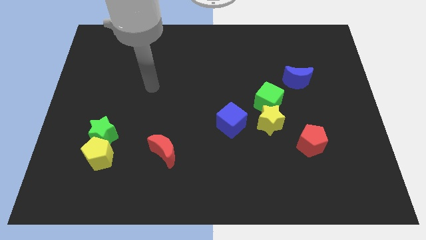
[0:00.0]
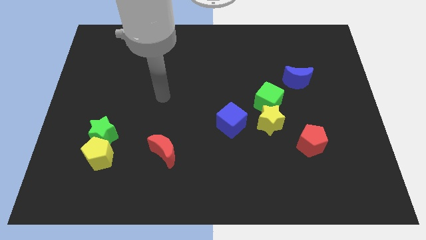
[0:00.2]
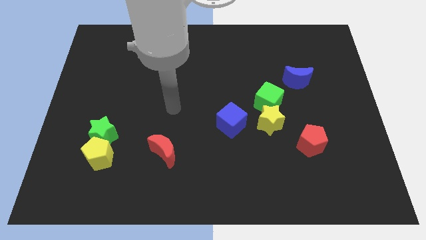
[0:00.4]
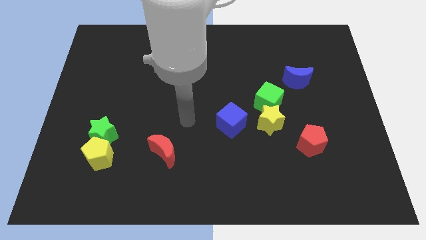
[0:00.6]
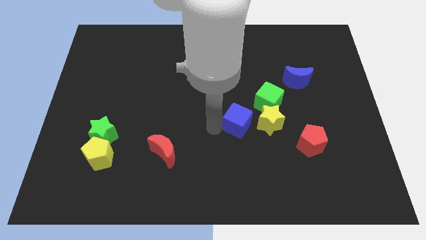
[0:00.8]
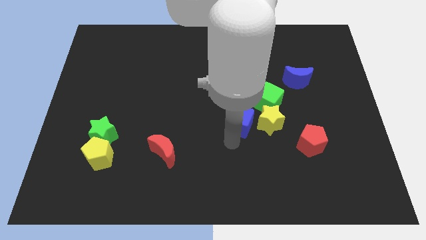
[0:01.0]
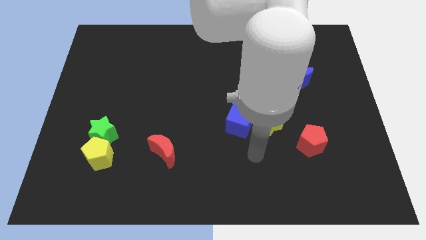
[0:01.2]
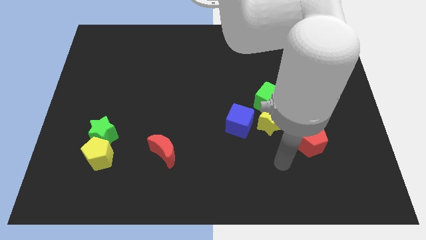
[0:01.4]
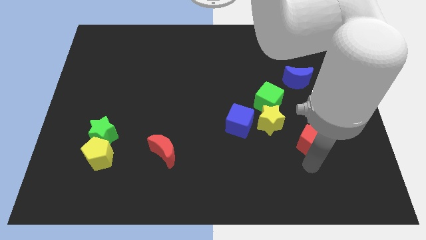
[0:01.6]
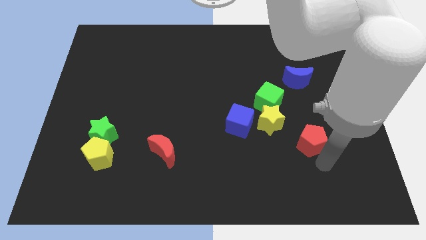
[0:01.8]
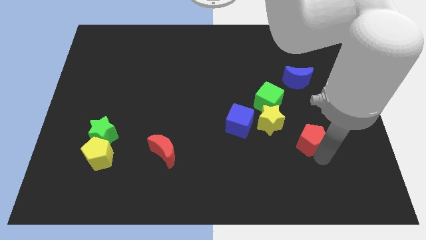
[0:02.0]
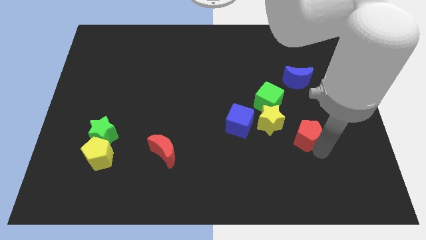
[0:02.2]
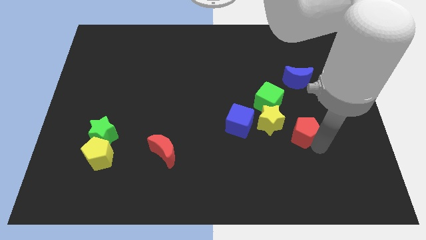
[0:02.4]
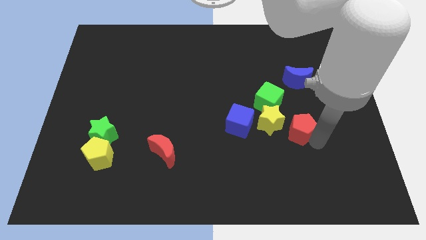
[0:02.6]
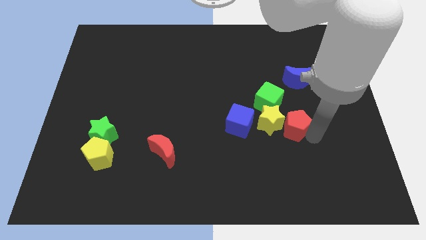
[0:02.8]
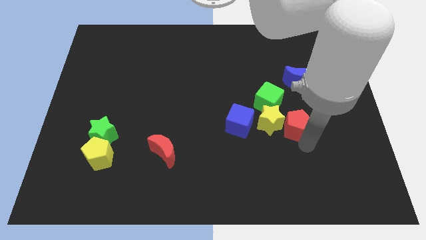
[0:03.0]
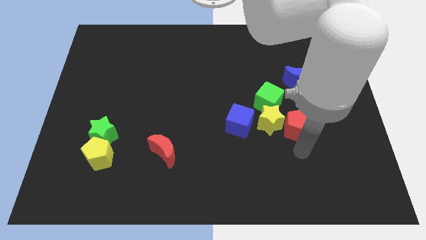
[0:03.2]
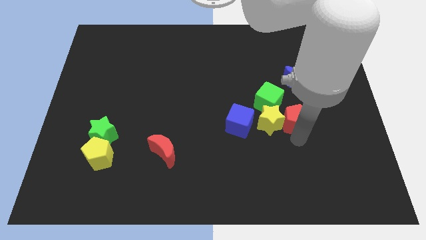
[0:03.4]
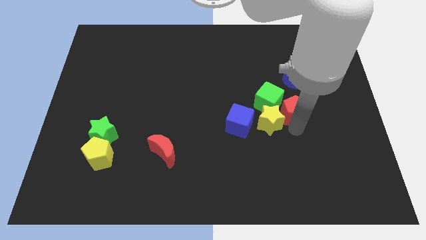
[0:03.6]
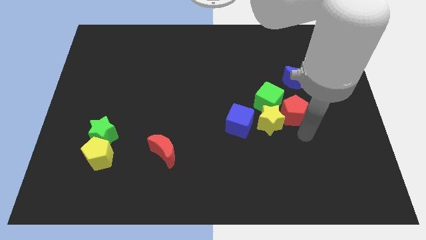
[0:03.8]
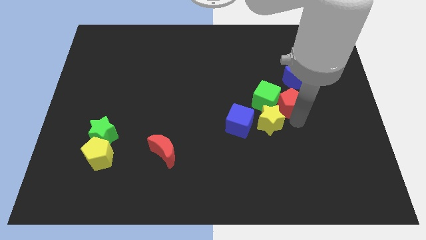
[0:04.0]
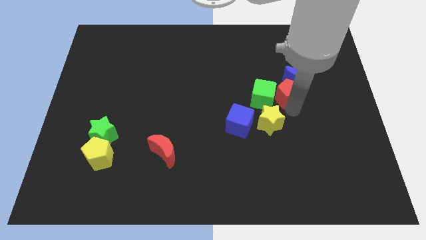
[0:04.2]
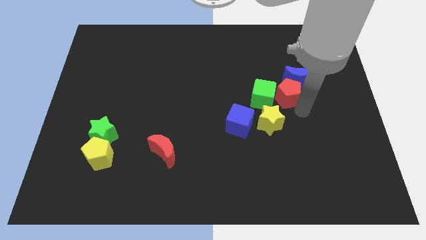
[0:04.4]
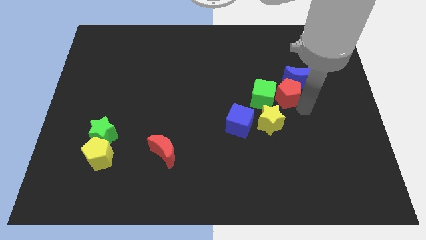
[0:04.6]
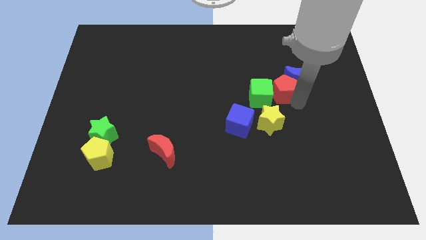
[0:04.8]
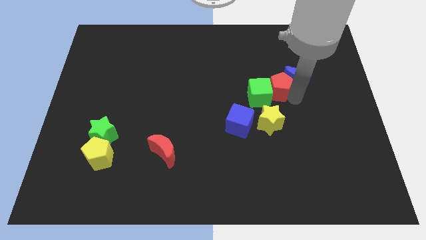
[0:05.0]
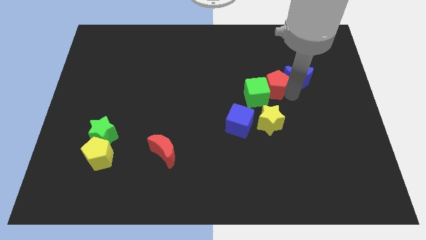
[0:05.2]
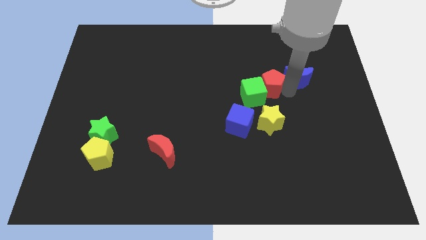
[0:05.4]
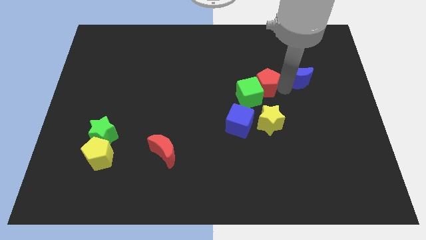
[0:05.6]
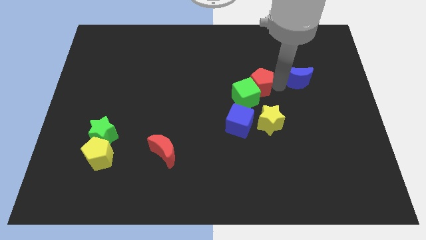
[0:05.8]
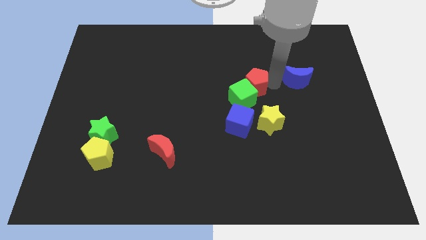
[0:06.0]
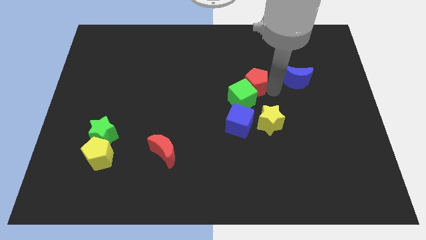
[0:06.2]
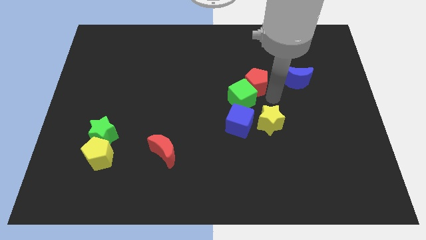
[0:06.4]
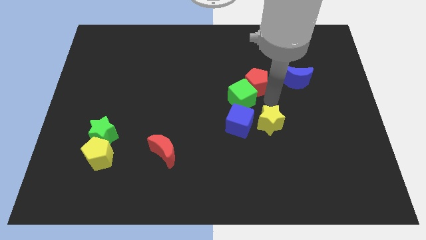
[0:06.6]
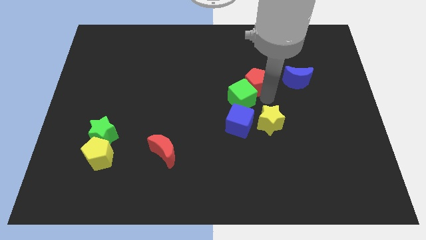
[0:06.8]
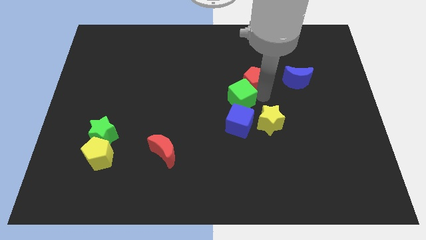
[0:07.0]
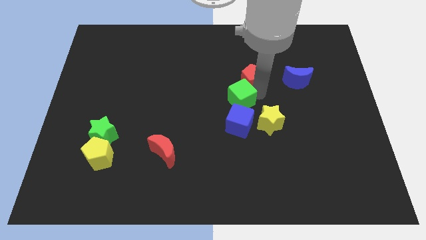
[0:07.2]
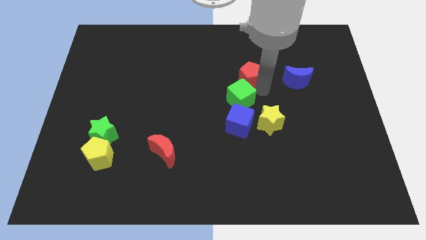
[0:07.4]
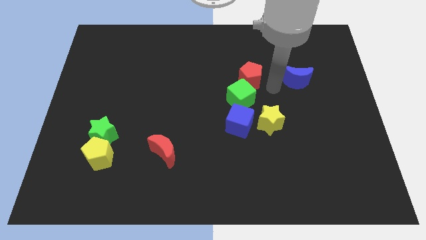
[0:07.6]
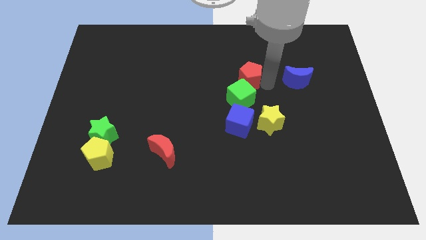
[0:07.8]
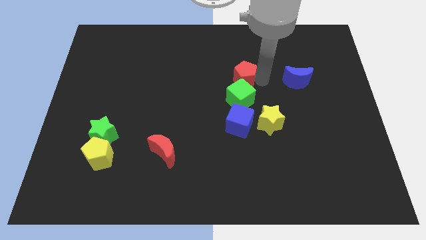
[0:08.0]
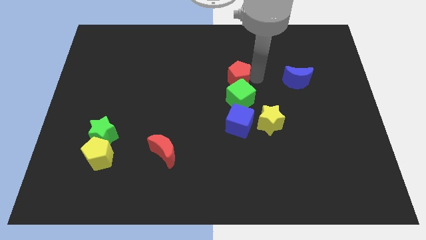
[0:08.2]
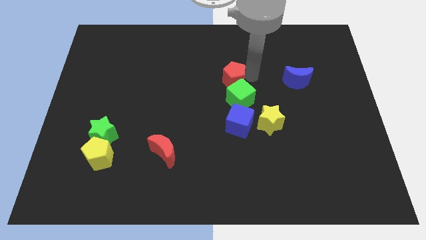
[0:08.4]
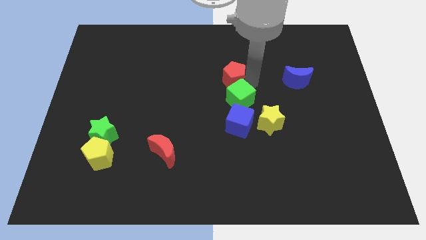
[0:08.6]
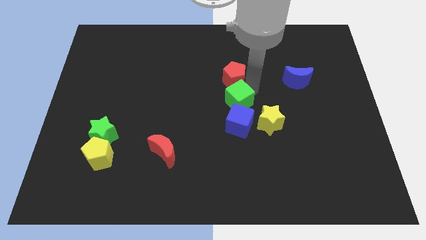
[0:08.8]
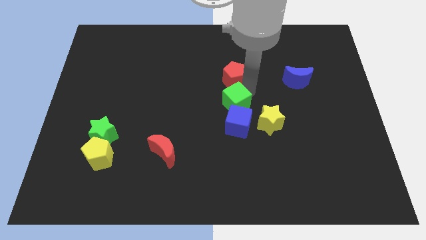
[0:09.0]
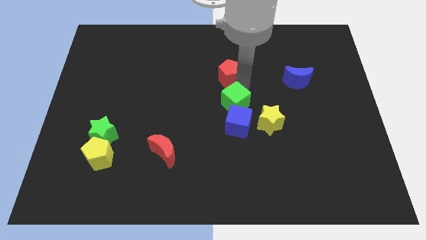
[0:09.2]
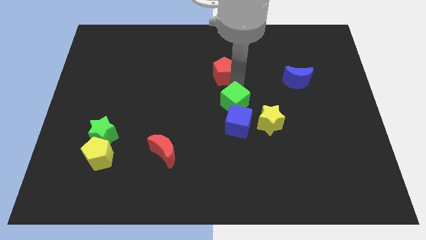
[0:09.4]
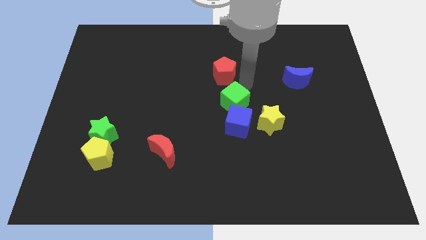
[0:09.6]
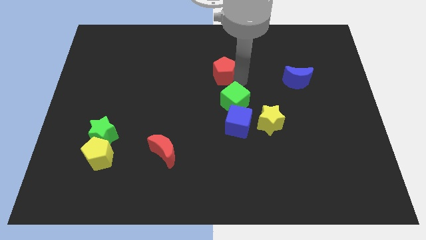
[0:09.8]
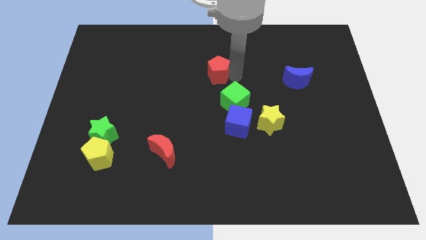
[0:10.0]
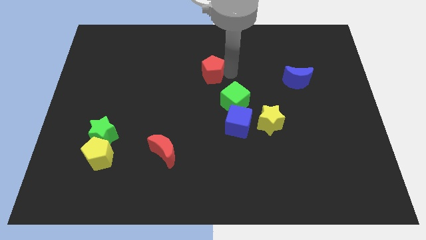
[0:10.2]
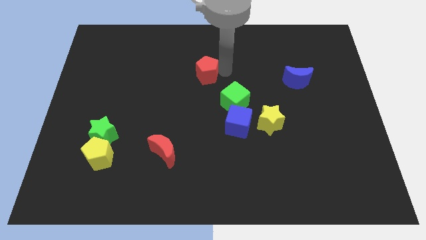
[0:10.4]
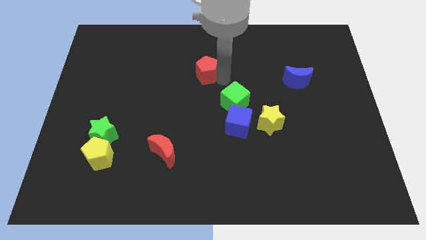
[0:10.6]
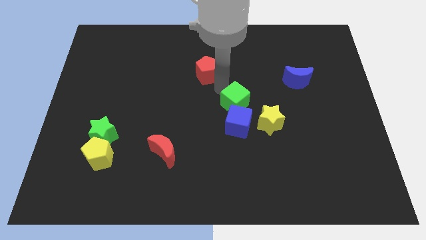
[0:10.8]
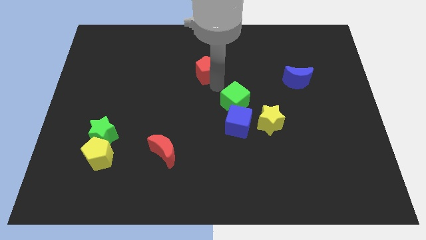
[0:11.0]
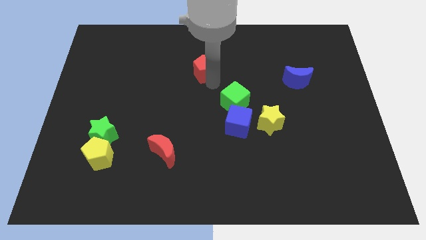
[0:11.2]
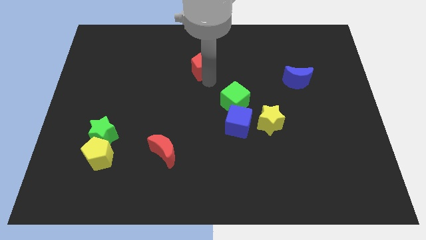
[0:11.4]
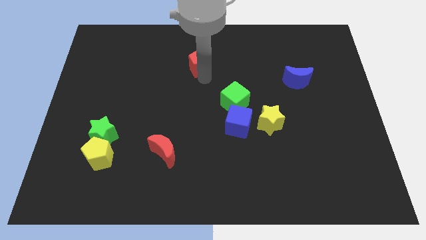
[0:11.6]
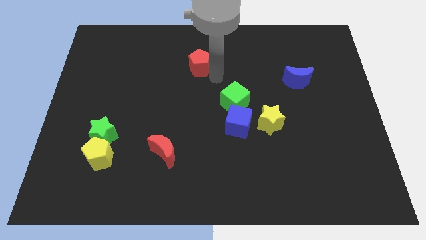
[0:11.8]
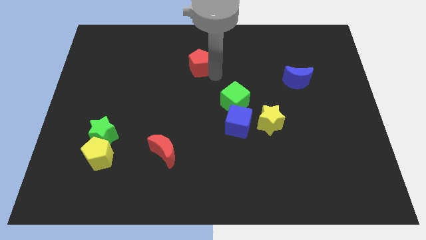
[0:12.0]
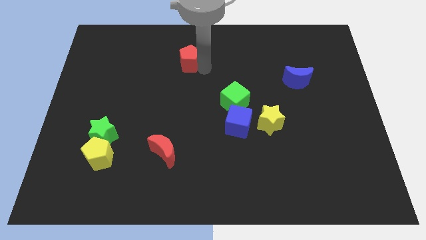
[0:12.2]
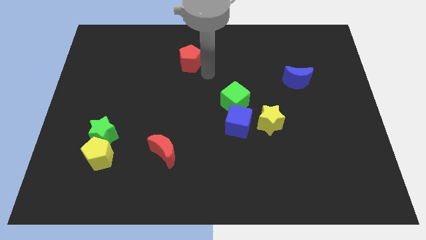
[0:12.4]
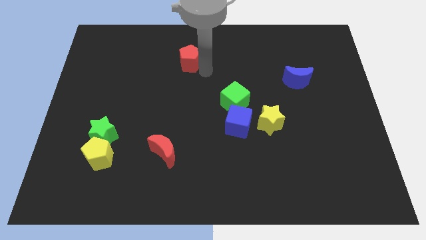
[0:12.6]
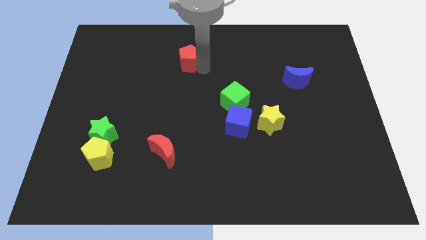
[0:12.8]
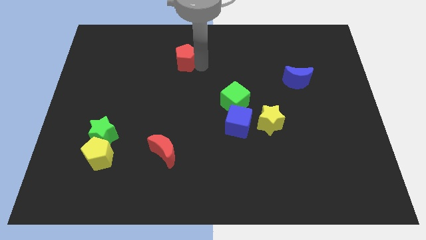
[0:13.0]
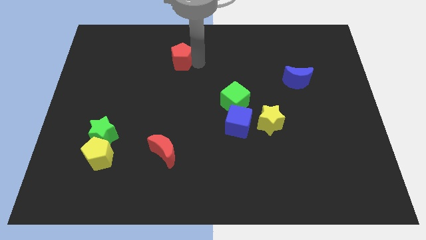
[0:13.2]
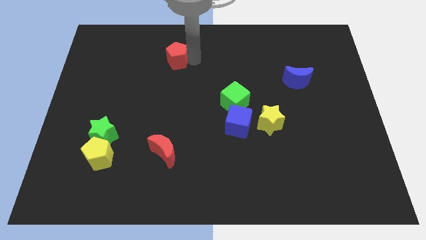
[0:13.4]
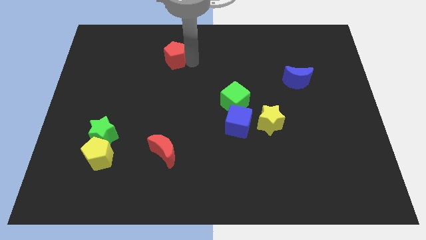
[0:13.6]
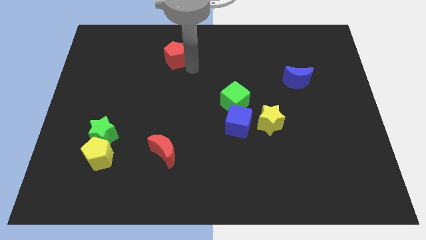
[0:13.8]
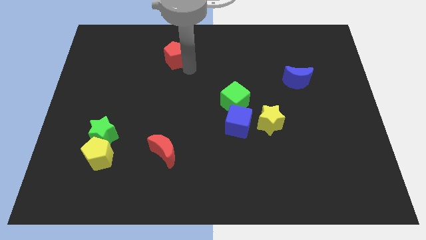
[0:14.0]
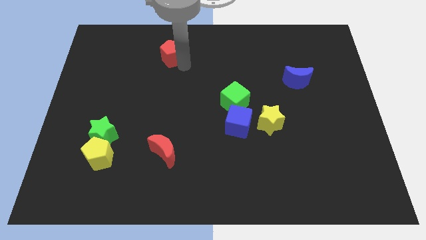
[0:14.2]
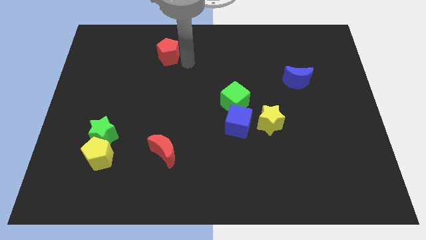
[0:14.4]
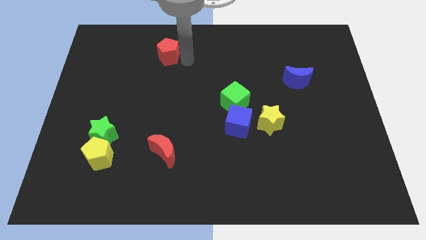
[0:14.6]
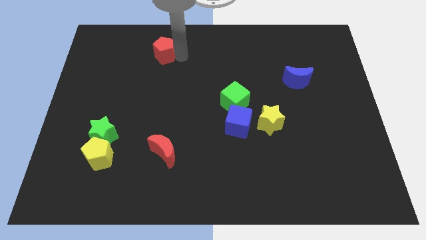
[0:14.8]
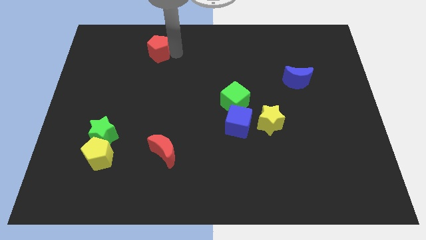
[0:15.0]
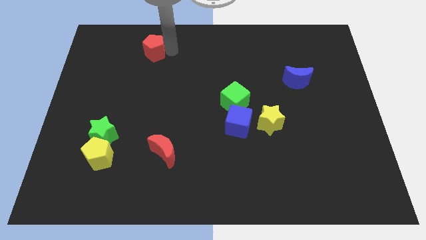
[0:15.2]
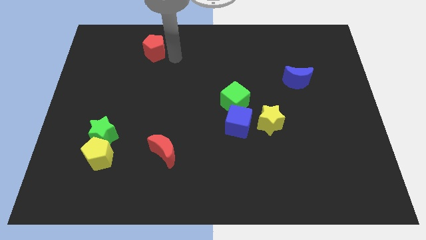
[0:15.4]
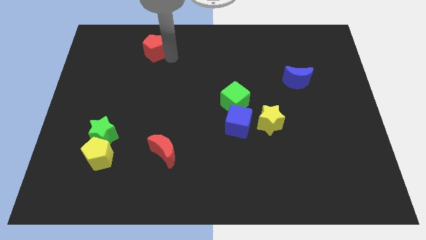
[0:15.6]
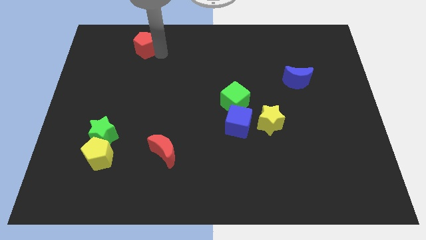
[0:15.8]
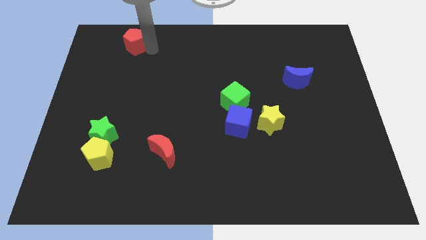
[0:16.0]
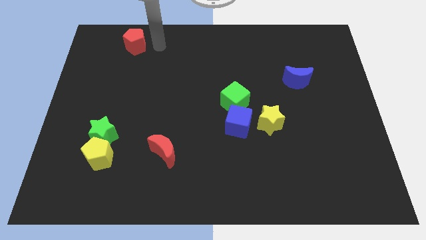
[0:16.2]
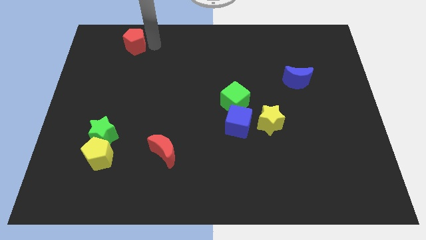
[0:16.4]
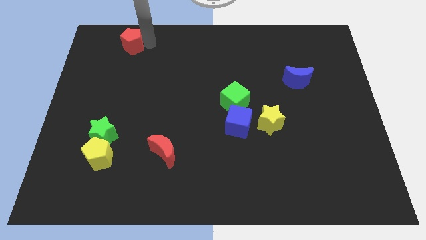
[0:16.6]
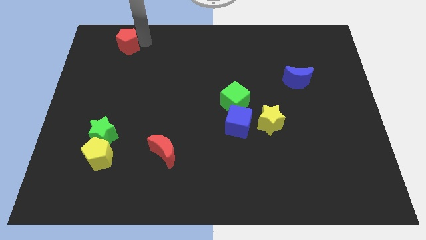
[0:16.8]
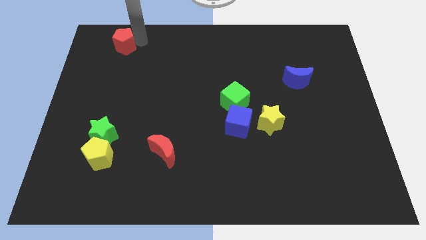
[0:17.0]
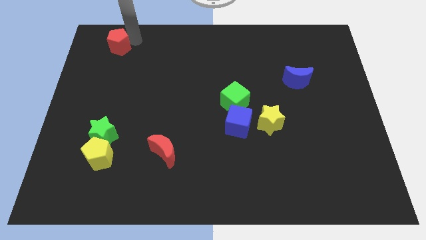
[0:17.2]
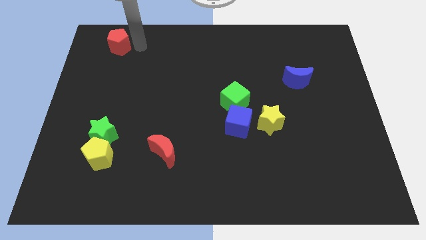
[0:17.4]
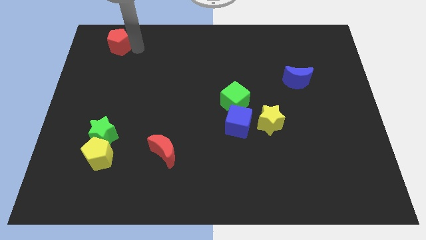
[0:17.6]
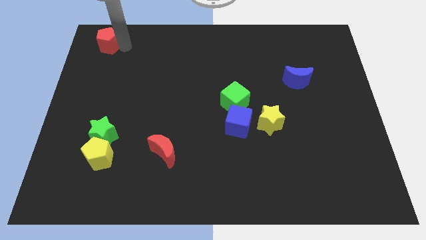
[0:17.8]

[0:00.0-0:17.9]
move the red pentagon to the top left
